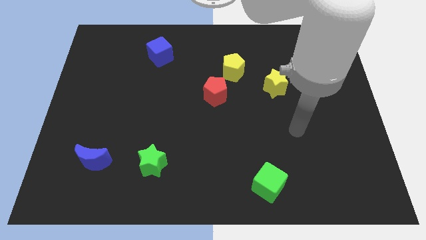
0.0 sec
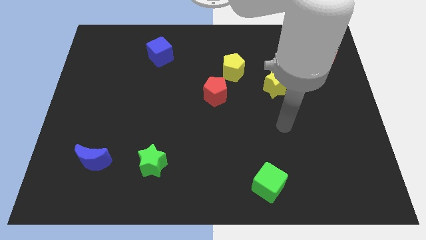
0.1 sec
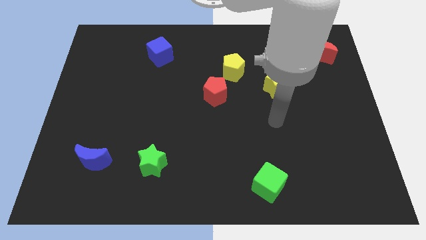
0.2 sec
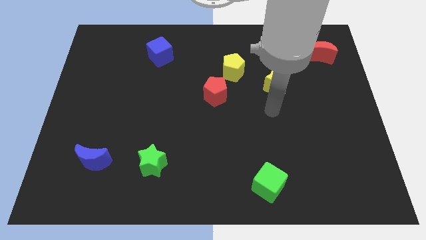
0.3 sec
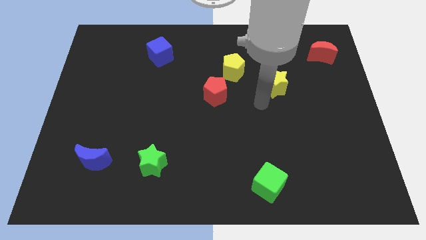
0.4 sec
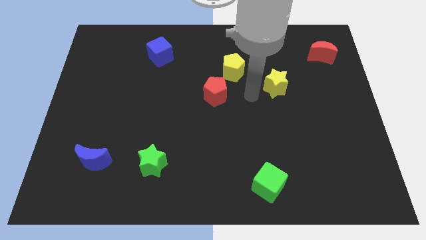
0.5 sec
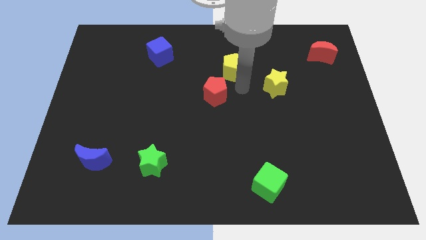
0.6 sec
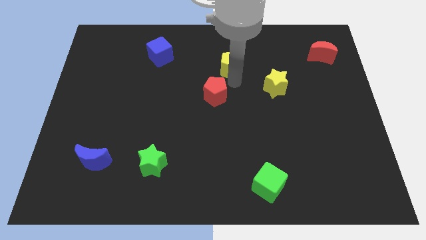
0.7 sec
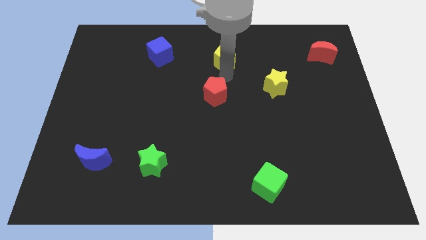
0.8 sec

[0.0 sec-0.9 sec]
separate the red pentagon from the yellow pentagon

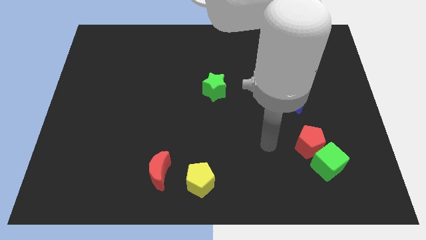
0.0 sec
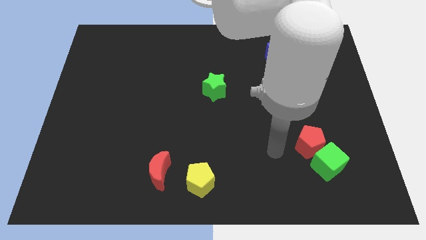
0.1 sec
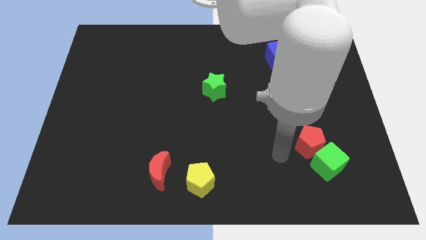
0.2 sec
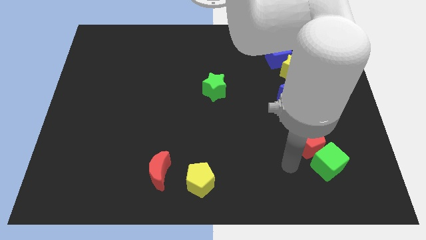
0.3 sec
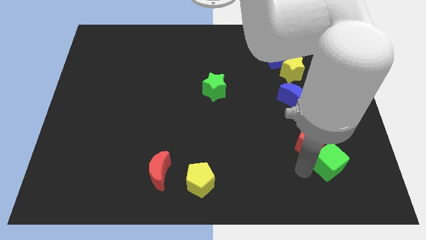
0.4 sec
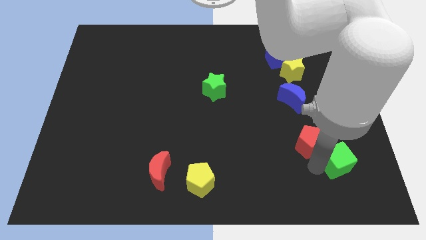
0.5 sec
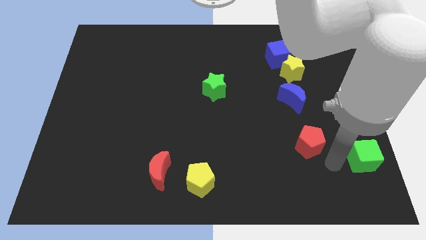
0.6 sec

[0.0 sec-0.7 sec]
pull the red pentagon apart from the green cube

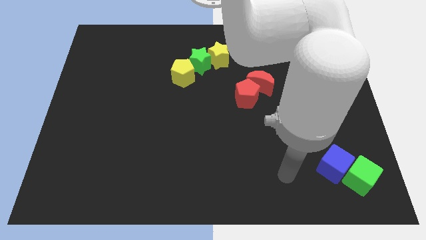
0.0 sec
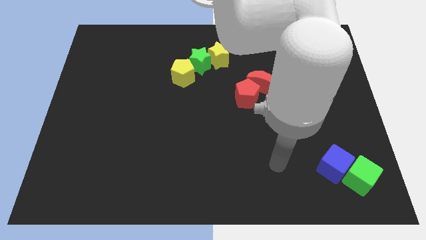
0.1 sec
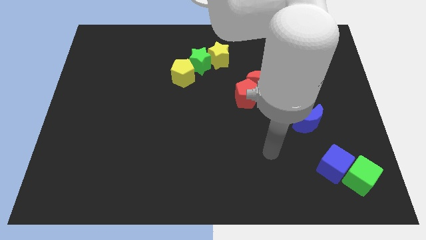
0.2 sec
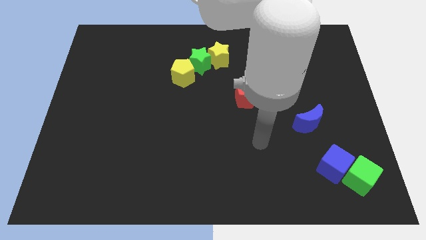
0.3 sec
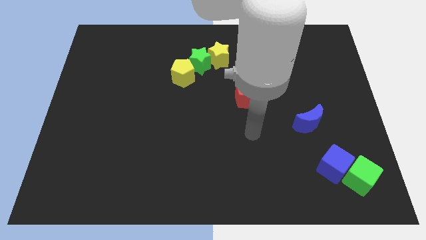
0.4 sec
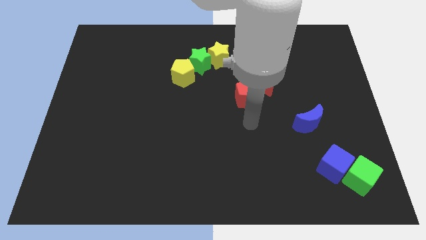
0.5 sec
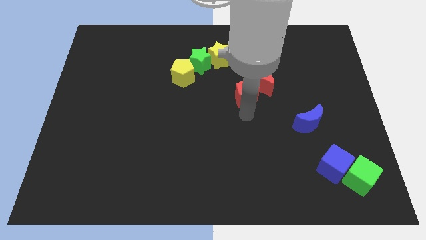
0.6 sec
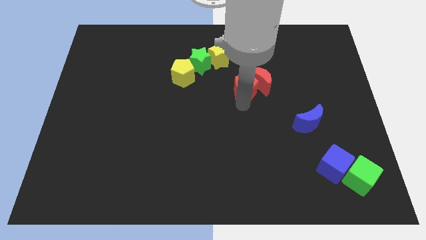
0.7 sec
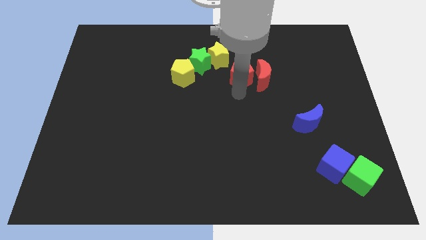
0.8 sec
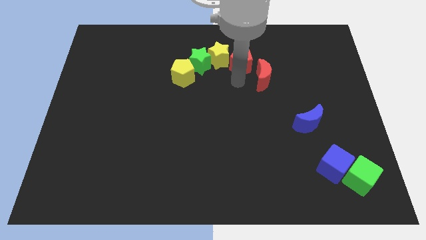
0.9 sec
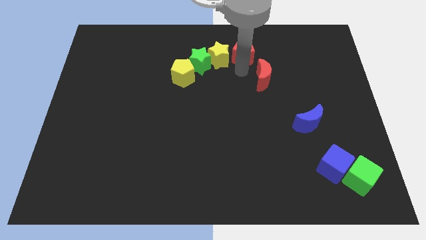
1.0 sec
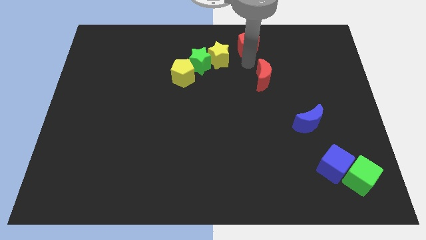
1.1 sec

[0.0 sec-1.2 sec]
move the red moon away from the red pentagon

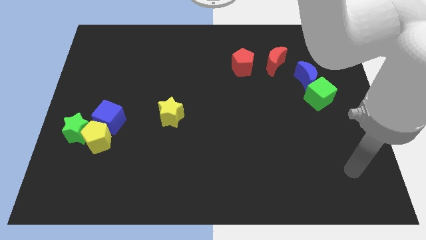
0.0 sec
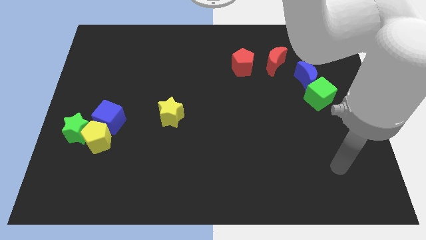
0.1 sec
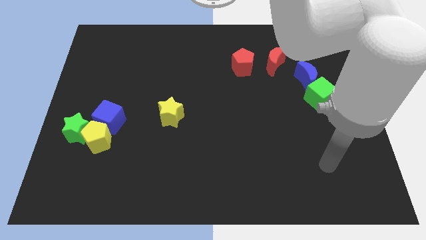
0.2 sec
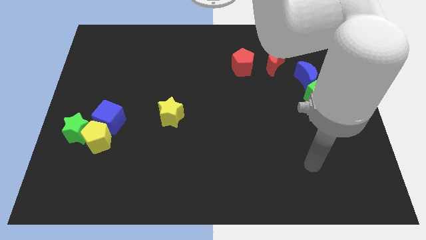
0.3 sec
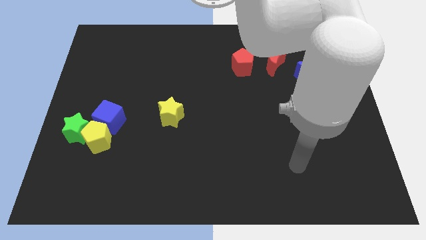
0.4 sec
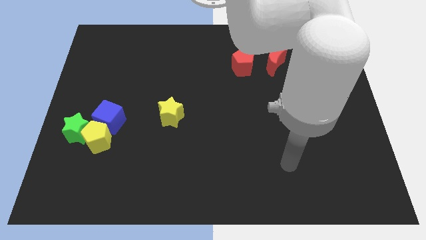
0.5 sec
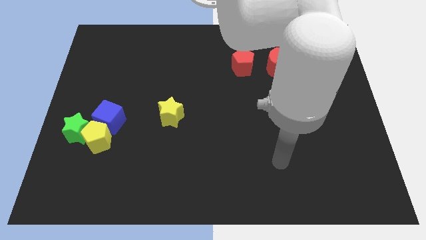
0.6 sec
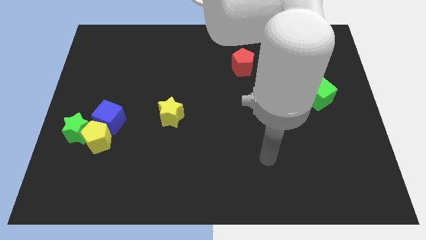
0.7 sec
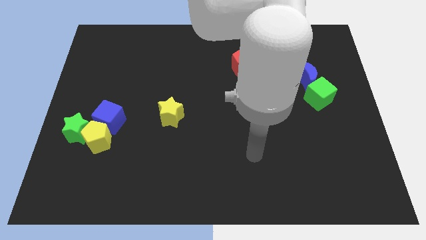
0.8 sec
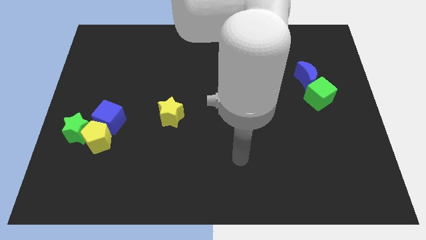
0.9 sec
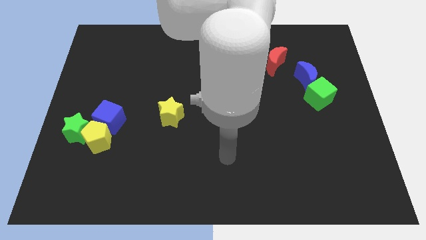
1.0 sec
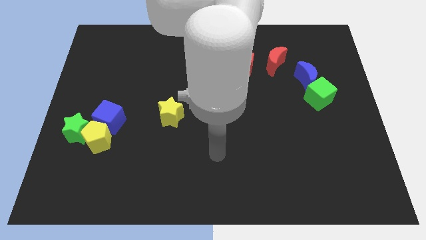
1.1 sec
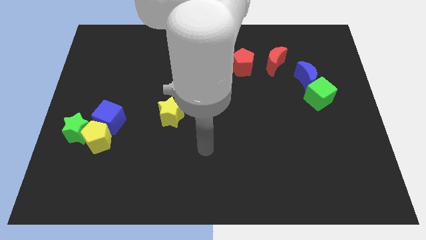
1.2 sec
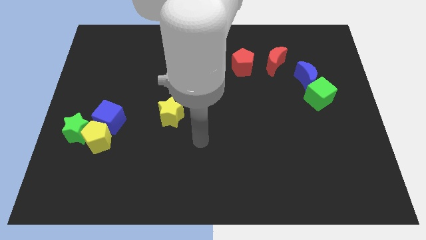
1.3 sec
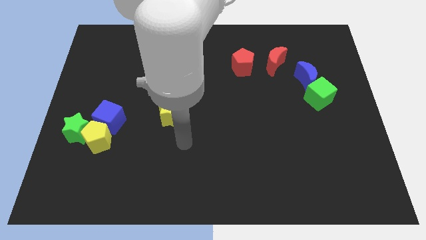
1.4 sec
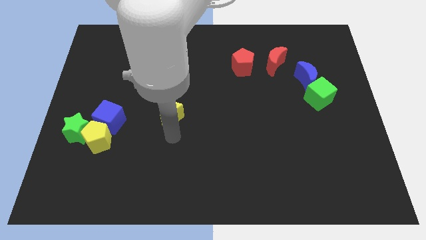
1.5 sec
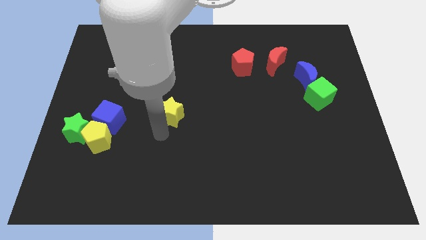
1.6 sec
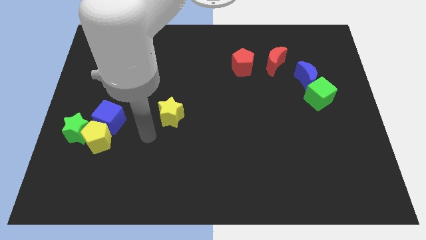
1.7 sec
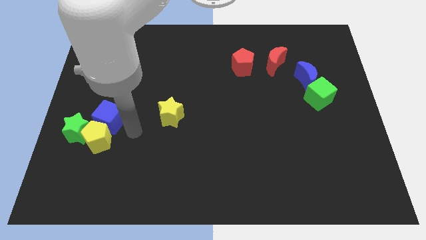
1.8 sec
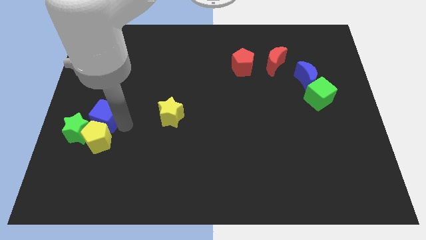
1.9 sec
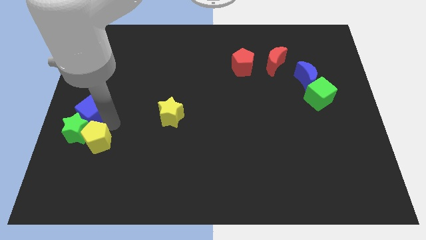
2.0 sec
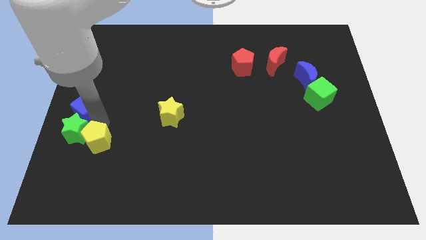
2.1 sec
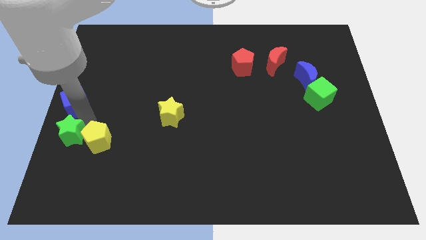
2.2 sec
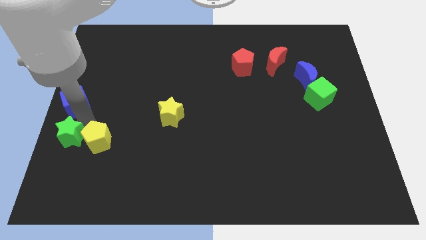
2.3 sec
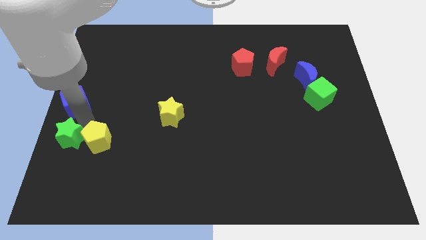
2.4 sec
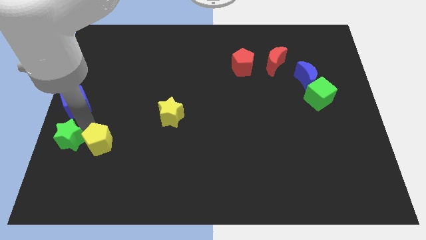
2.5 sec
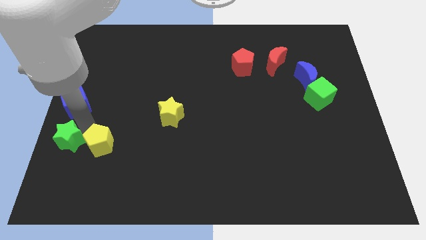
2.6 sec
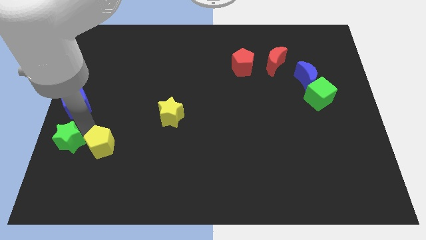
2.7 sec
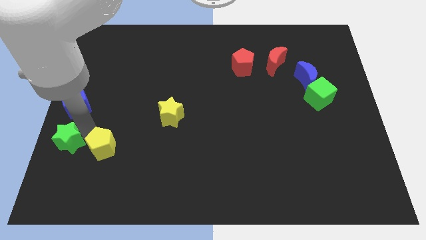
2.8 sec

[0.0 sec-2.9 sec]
pull the yellow pentagon apart from the green star and blue cube

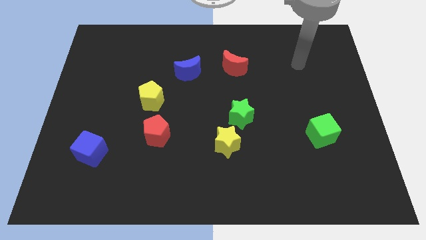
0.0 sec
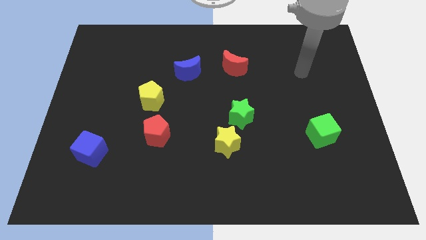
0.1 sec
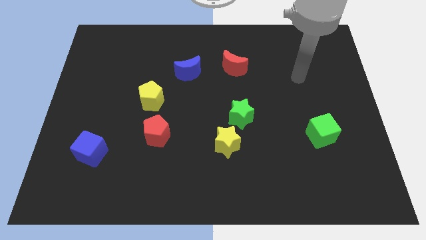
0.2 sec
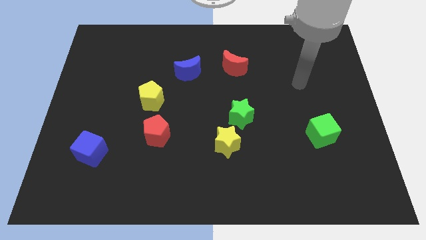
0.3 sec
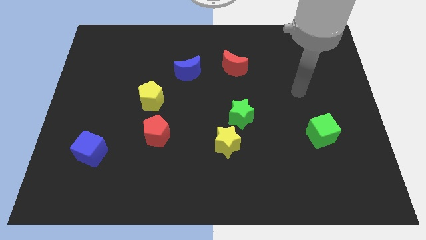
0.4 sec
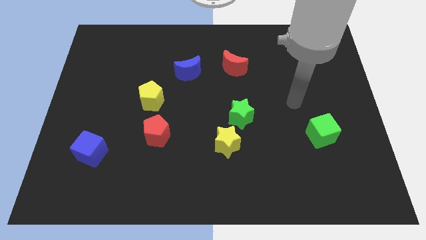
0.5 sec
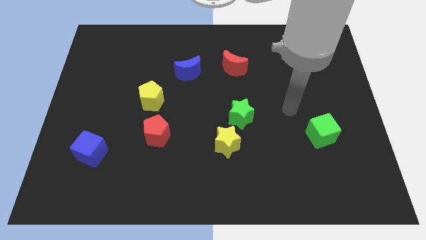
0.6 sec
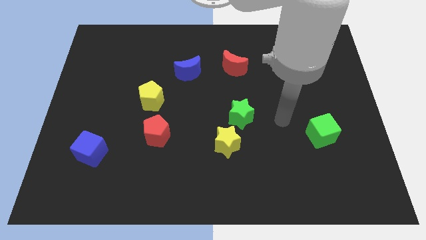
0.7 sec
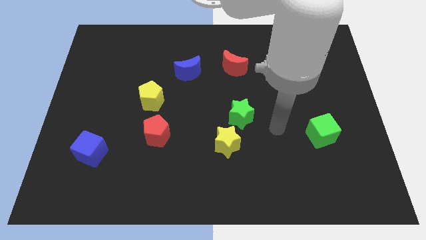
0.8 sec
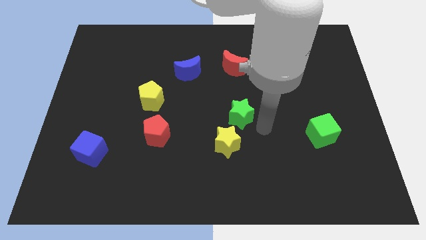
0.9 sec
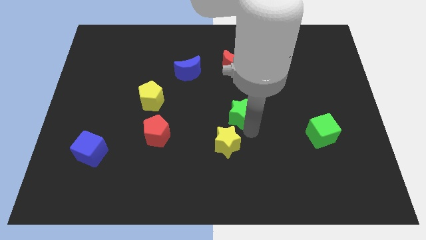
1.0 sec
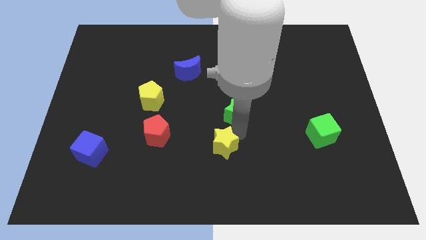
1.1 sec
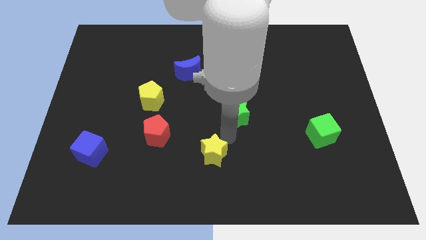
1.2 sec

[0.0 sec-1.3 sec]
pull the green star apart from the yellow star

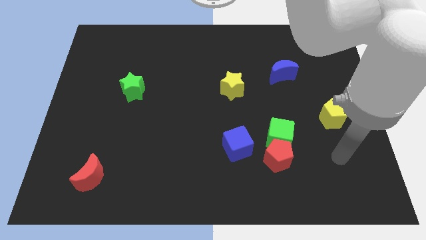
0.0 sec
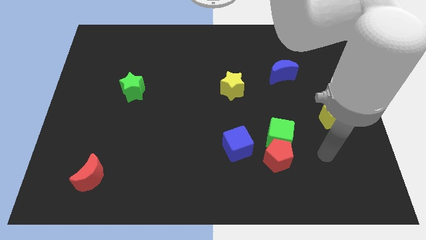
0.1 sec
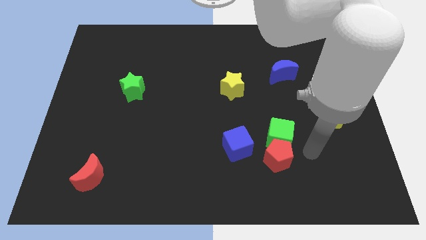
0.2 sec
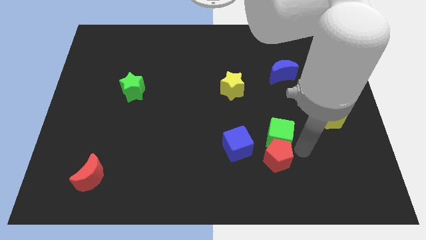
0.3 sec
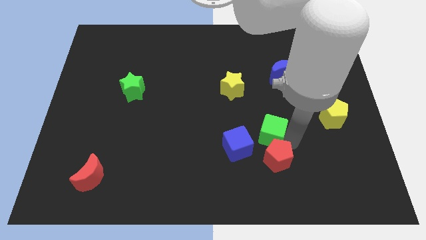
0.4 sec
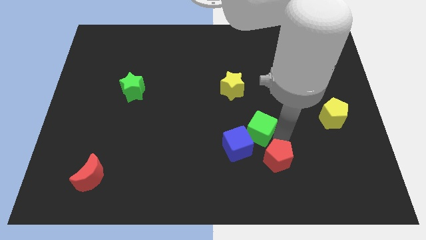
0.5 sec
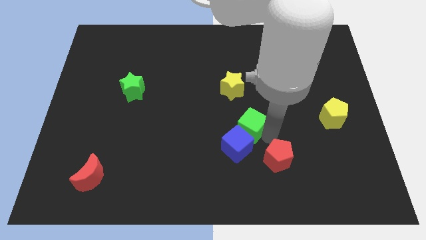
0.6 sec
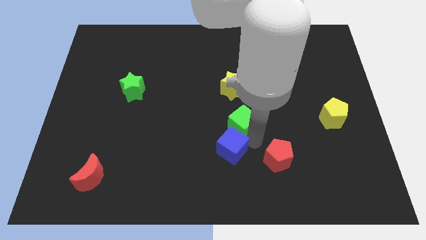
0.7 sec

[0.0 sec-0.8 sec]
pull the red pentagon apart from the green cube and blue cube

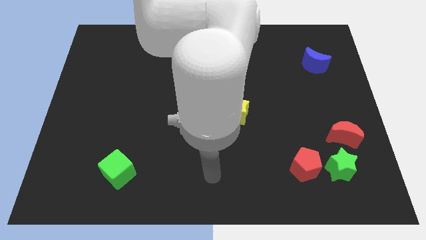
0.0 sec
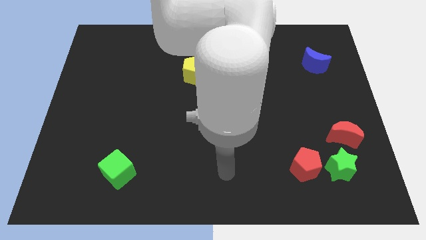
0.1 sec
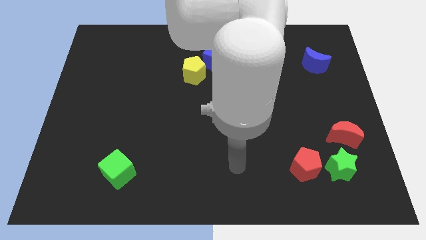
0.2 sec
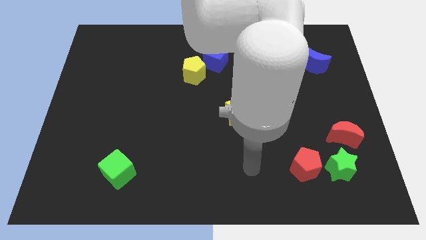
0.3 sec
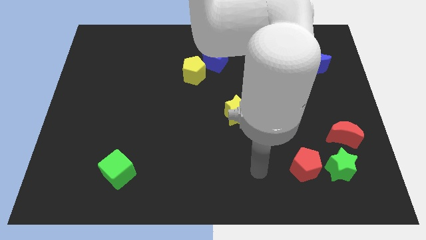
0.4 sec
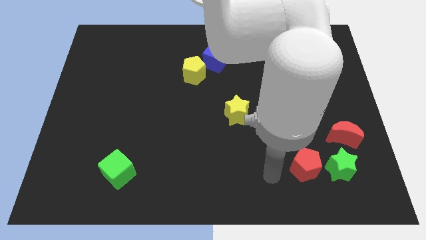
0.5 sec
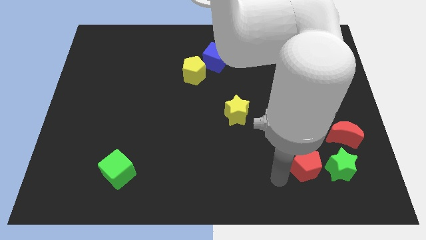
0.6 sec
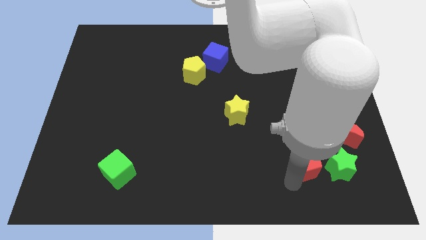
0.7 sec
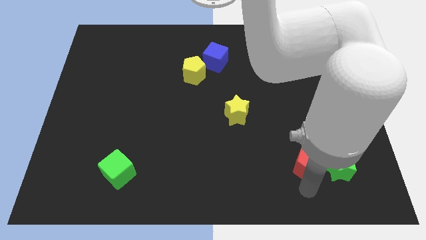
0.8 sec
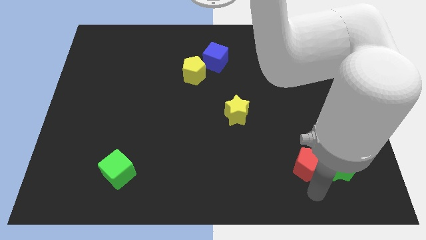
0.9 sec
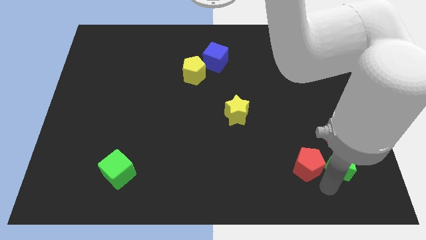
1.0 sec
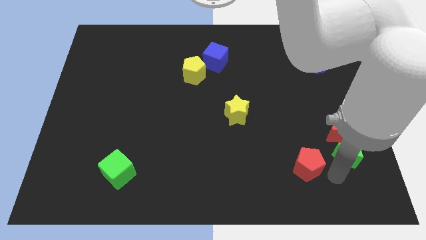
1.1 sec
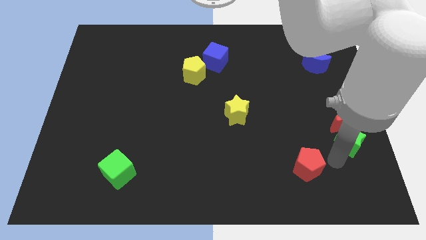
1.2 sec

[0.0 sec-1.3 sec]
pull the red pentagon apart from the green star

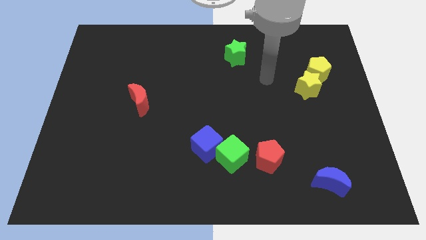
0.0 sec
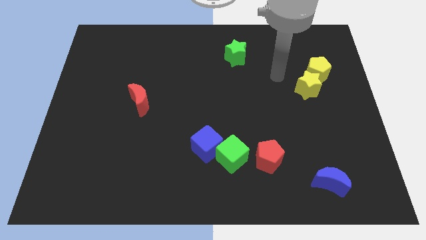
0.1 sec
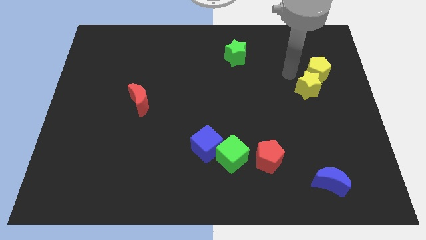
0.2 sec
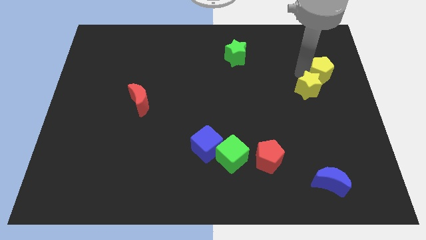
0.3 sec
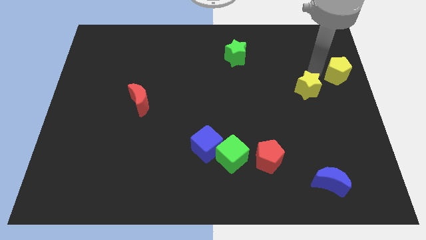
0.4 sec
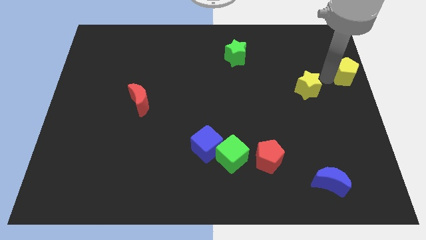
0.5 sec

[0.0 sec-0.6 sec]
move the yellow star away from the yellow pentagon
